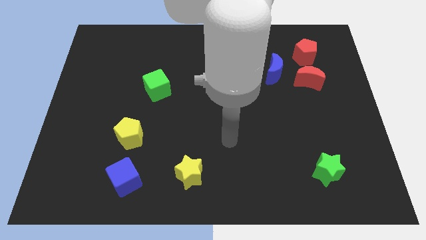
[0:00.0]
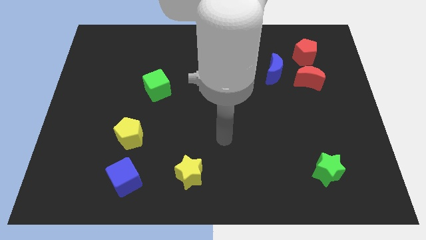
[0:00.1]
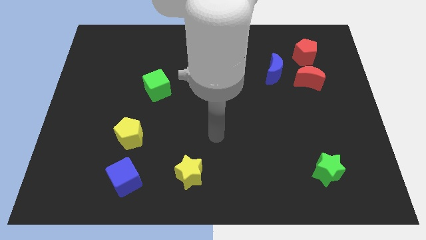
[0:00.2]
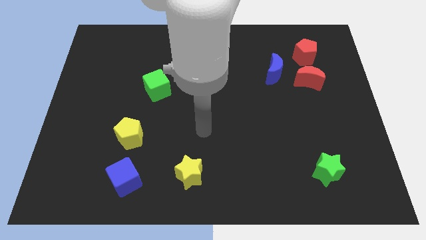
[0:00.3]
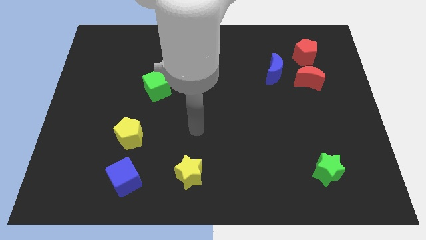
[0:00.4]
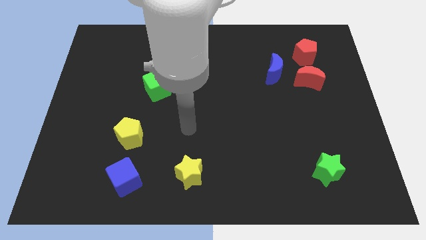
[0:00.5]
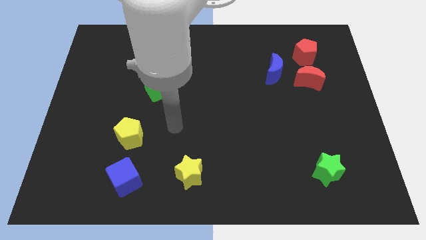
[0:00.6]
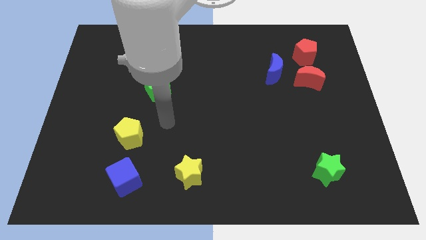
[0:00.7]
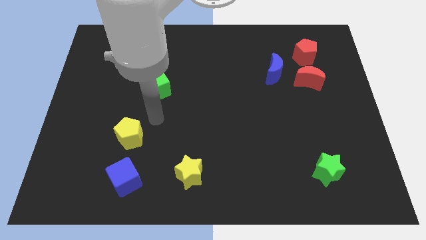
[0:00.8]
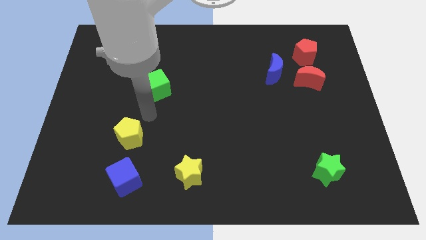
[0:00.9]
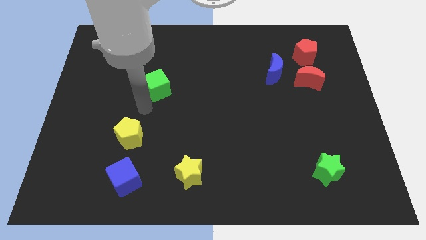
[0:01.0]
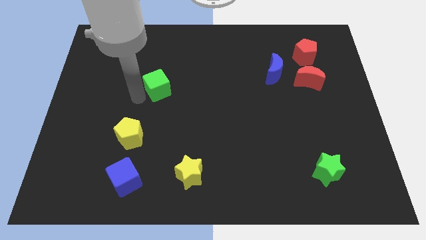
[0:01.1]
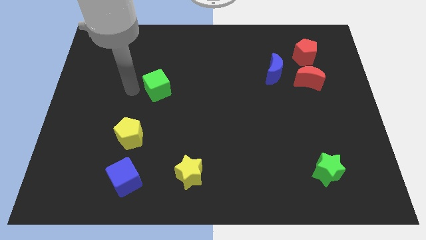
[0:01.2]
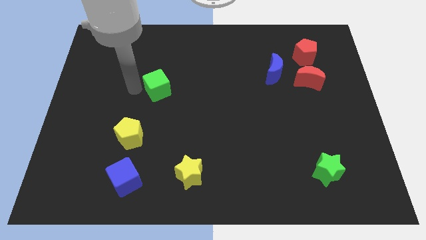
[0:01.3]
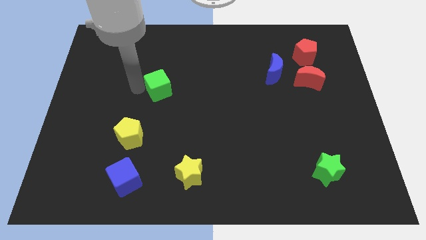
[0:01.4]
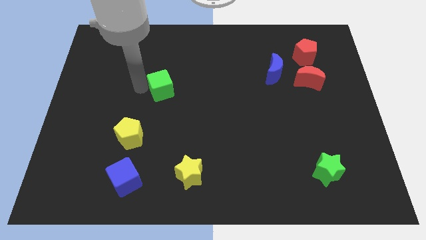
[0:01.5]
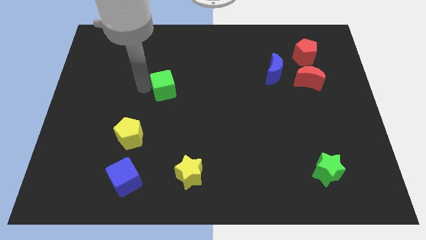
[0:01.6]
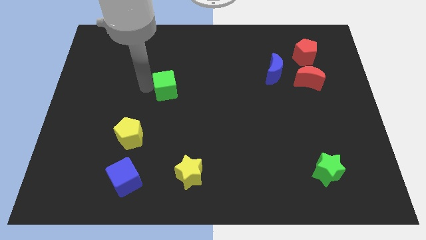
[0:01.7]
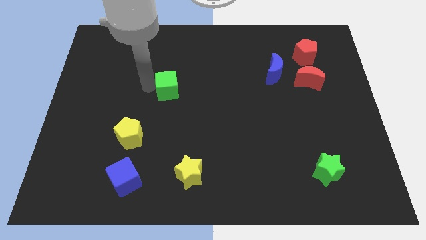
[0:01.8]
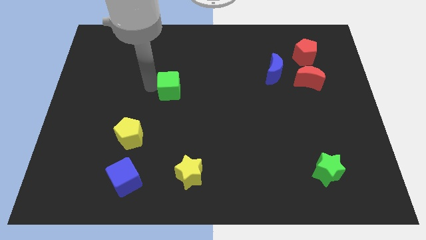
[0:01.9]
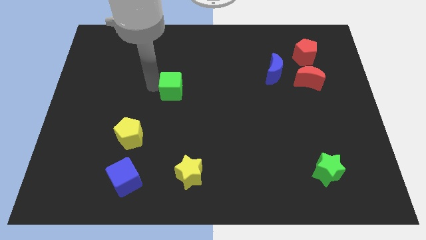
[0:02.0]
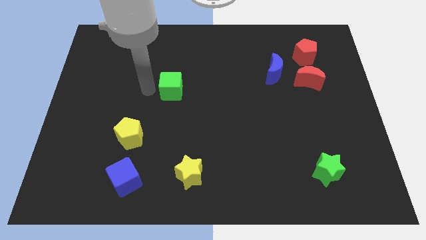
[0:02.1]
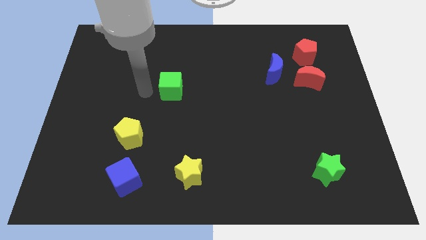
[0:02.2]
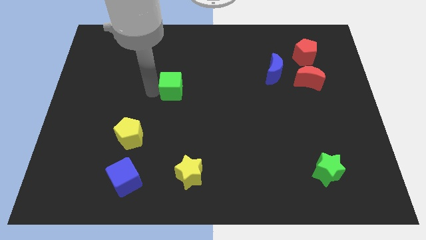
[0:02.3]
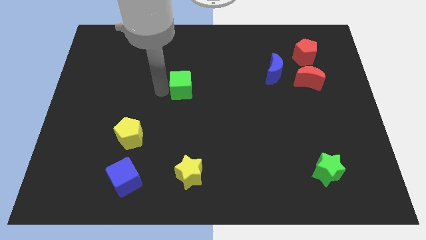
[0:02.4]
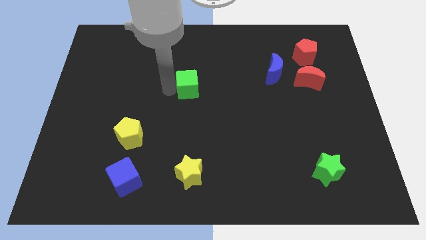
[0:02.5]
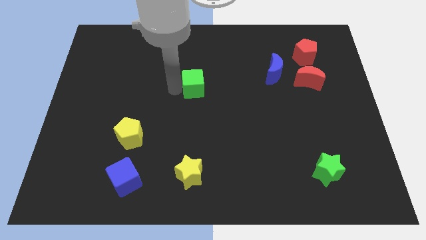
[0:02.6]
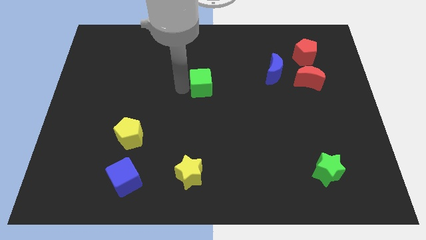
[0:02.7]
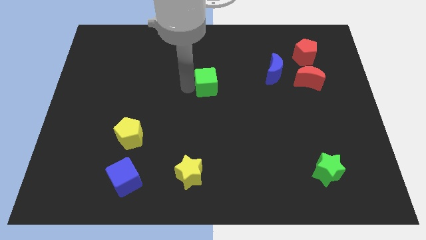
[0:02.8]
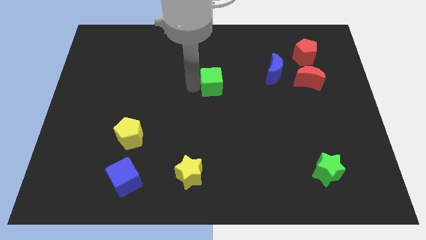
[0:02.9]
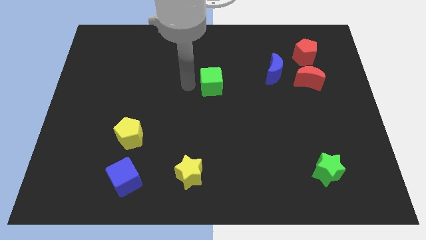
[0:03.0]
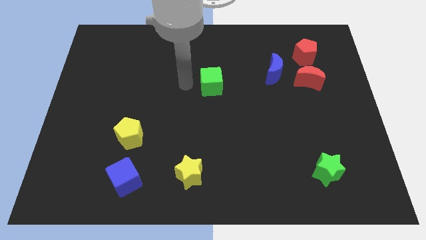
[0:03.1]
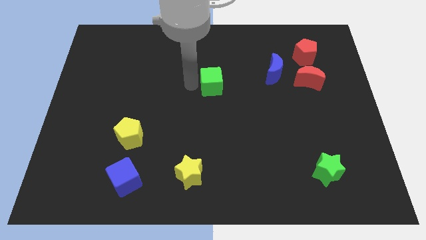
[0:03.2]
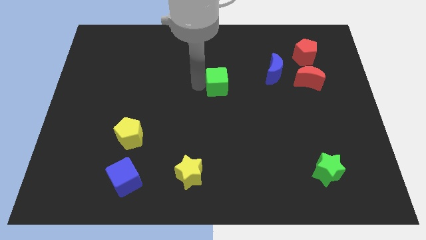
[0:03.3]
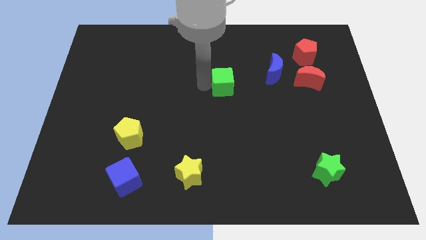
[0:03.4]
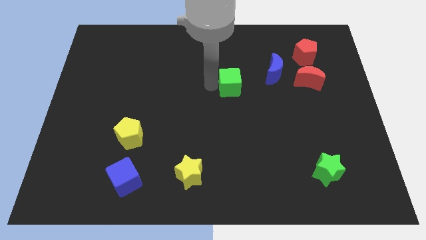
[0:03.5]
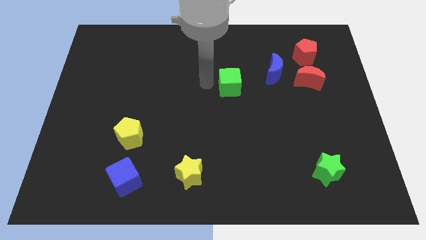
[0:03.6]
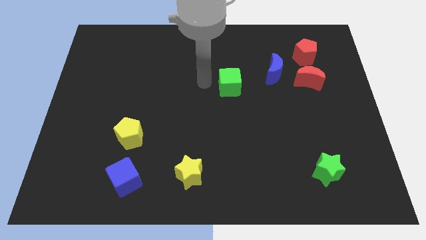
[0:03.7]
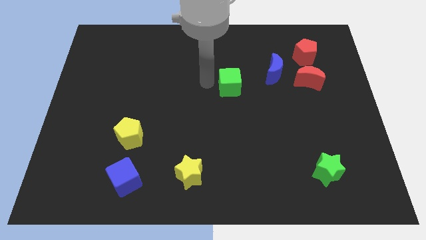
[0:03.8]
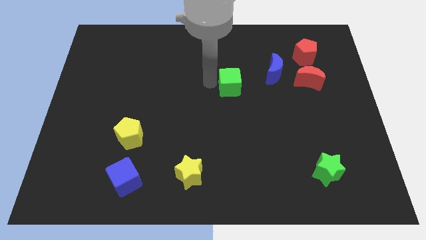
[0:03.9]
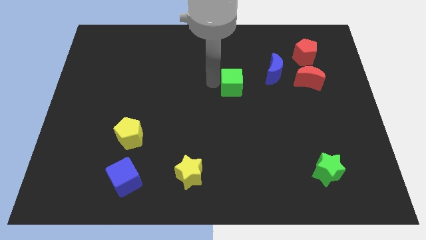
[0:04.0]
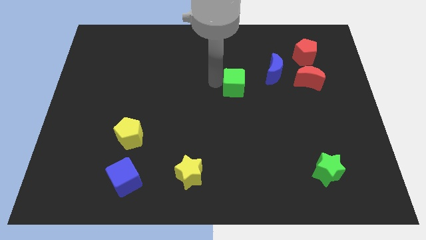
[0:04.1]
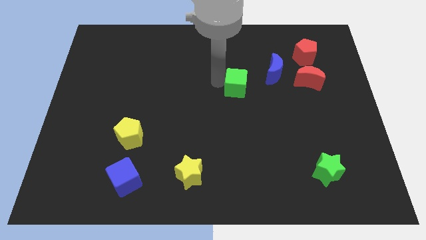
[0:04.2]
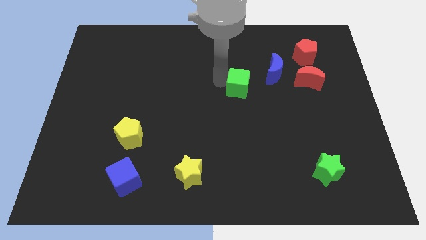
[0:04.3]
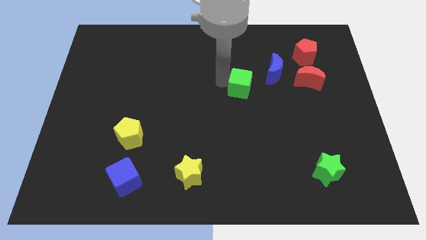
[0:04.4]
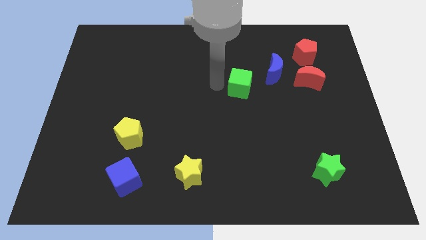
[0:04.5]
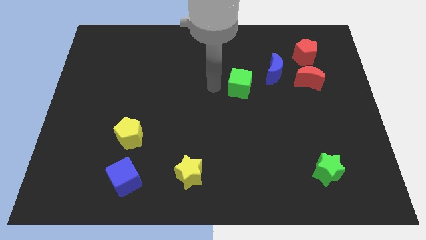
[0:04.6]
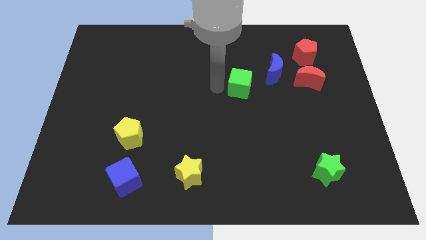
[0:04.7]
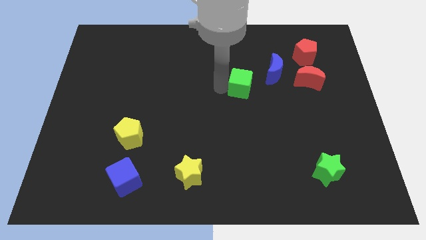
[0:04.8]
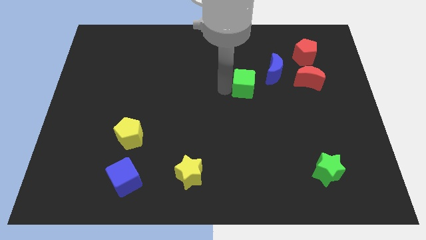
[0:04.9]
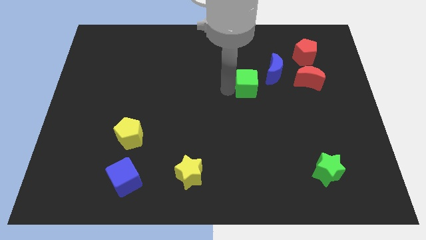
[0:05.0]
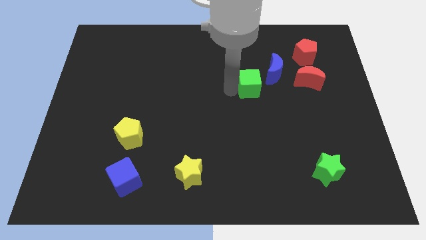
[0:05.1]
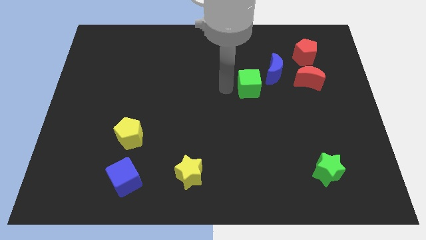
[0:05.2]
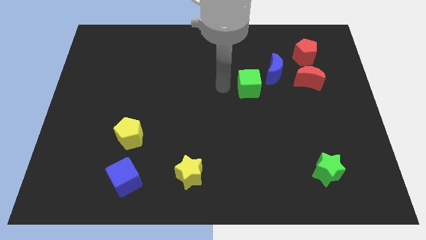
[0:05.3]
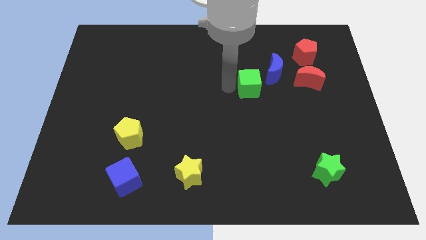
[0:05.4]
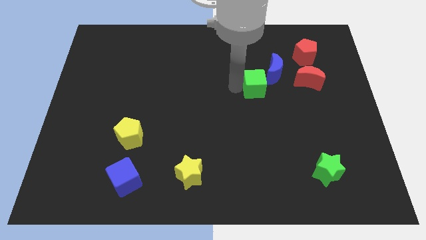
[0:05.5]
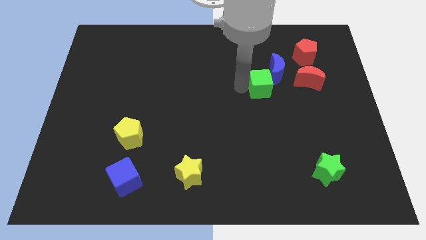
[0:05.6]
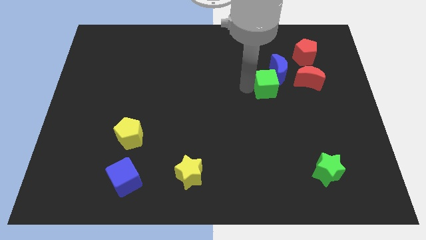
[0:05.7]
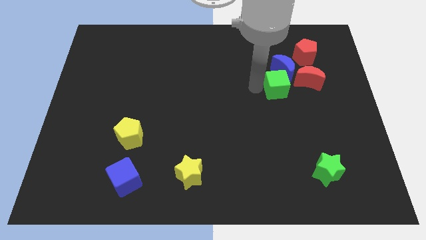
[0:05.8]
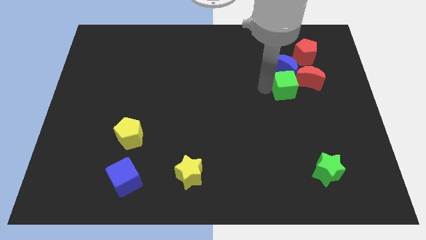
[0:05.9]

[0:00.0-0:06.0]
put the green cube to the bottom right side of the blue moon

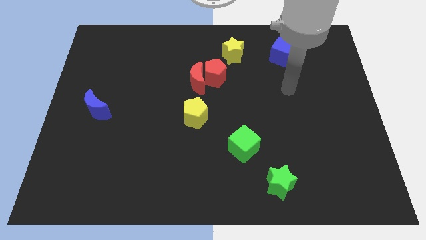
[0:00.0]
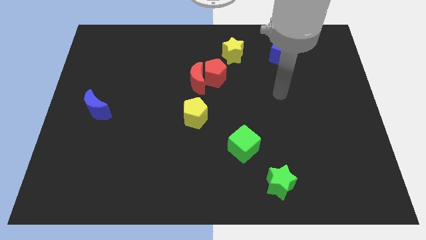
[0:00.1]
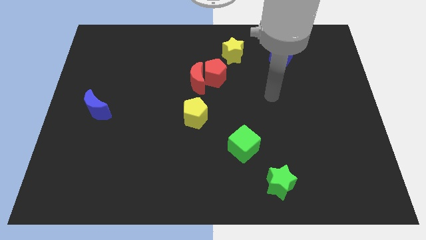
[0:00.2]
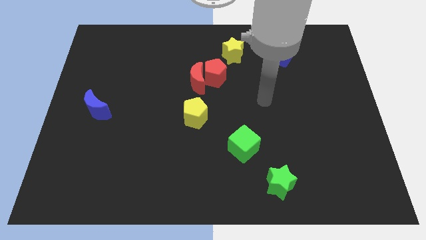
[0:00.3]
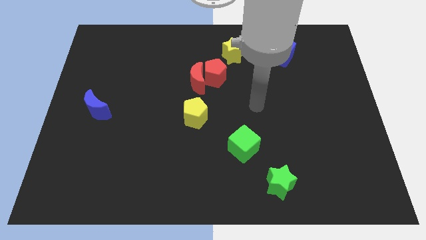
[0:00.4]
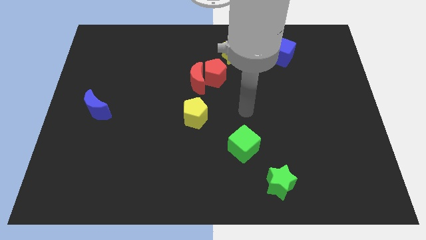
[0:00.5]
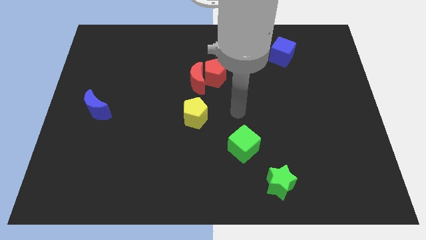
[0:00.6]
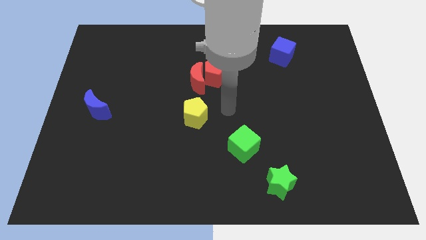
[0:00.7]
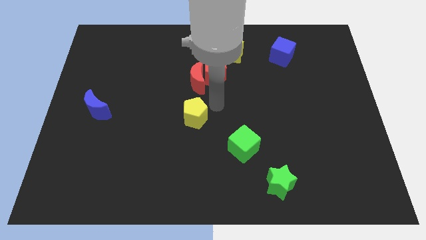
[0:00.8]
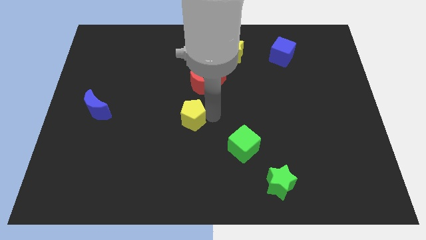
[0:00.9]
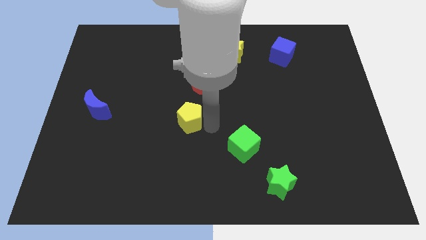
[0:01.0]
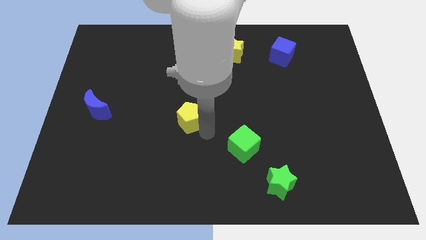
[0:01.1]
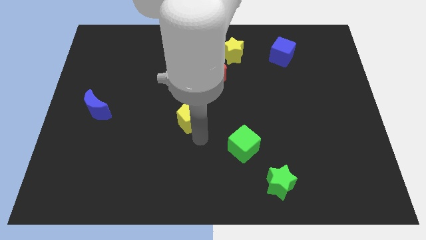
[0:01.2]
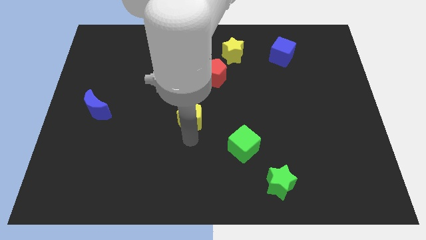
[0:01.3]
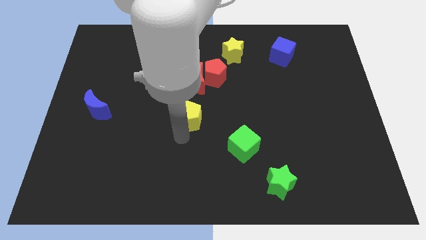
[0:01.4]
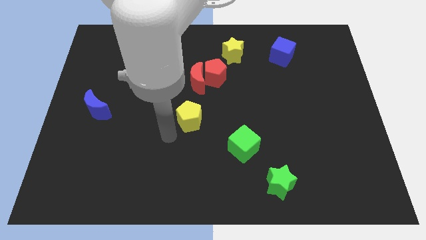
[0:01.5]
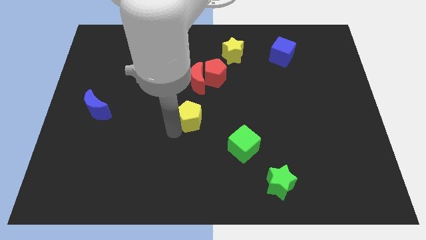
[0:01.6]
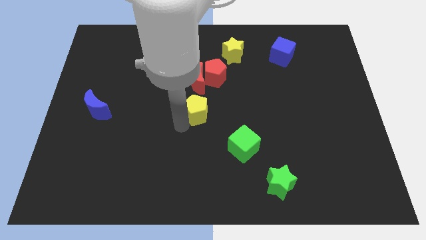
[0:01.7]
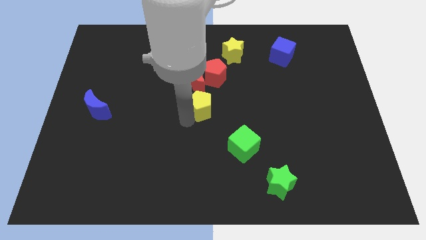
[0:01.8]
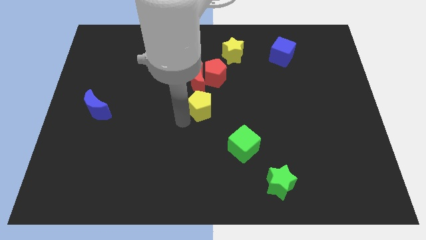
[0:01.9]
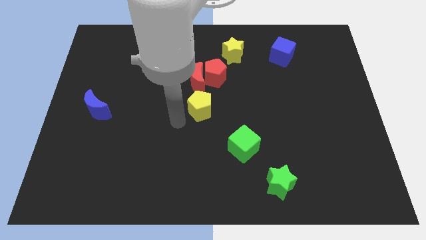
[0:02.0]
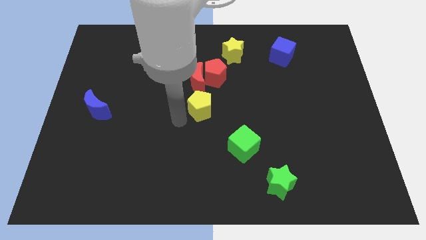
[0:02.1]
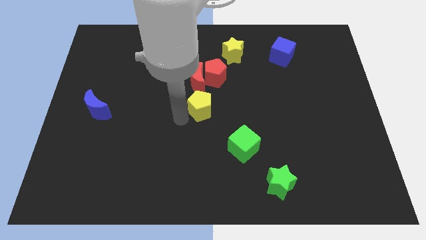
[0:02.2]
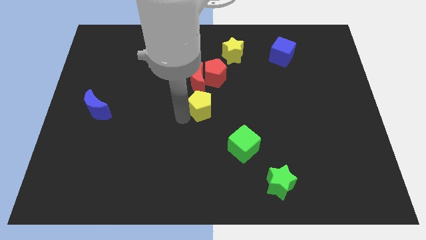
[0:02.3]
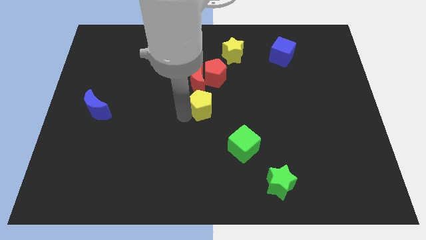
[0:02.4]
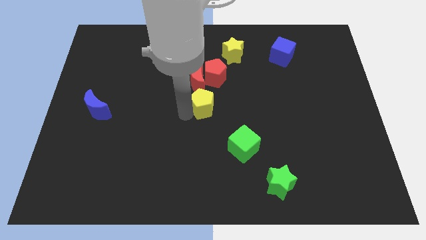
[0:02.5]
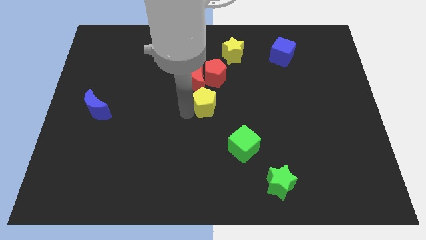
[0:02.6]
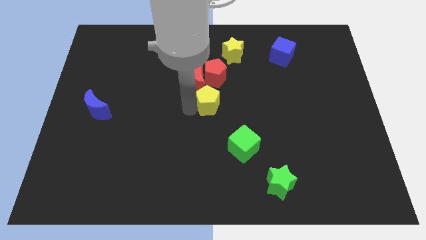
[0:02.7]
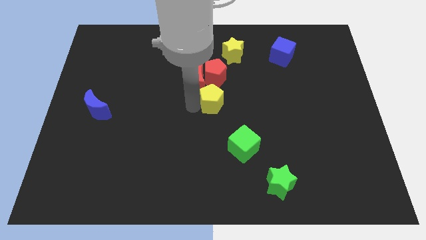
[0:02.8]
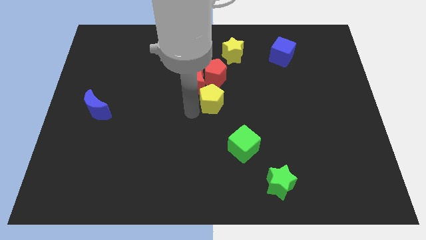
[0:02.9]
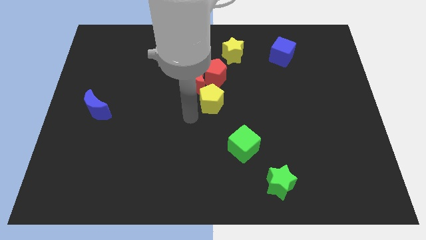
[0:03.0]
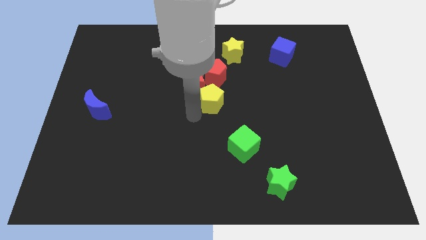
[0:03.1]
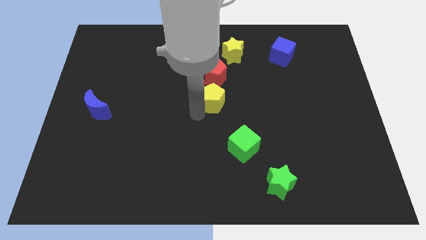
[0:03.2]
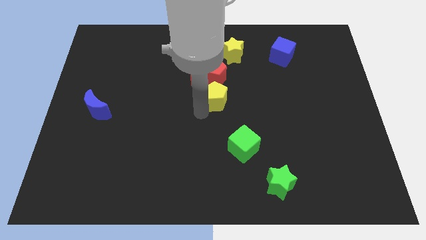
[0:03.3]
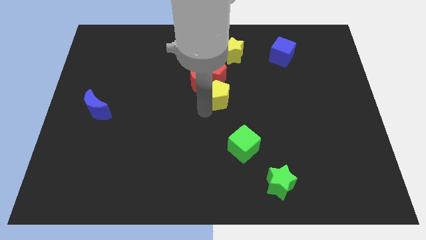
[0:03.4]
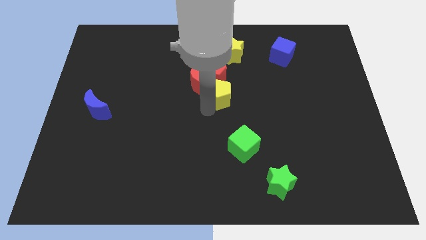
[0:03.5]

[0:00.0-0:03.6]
slide the yellow pentagon to the right of the red moon
